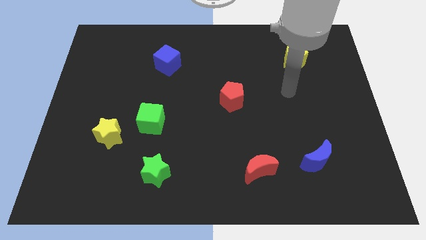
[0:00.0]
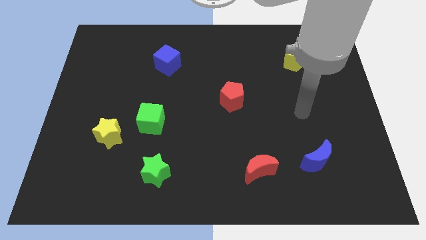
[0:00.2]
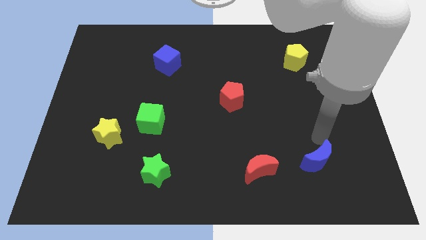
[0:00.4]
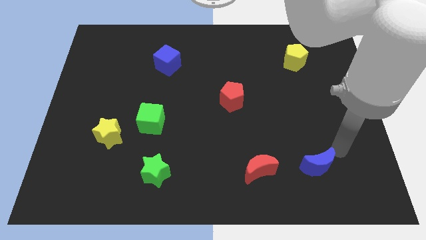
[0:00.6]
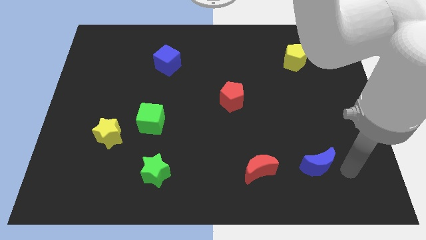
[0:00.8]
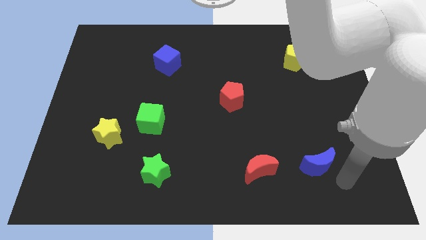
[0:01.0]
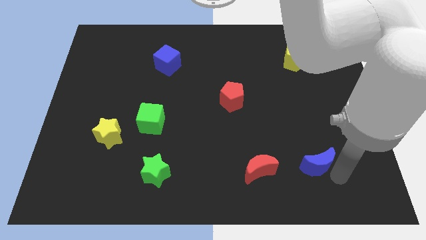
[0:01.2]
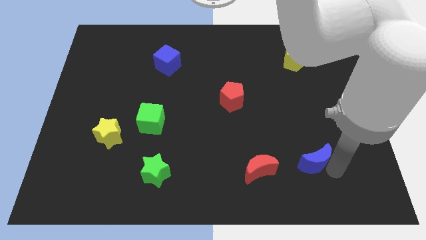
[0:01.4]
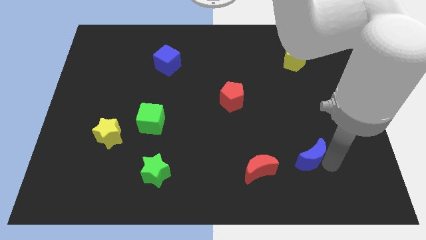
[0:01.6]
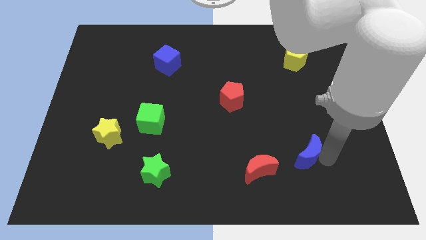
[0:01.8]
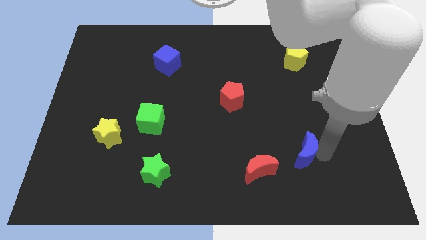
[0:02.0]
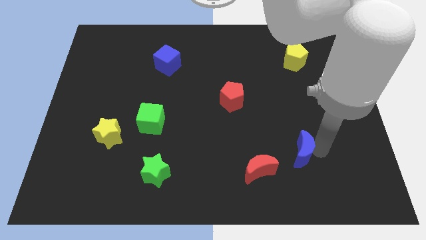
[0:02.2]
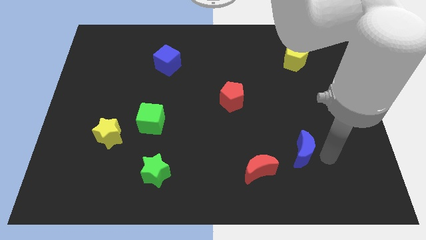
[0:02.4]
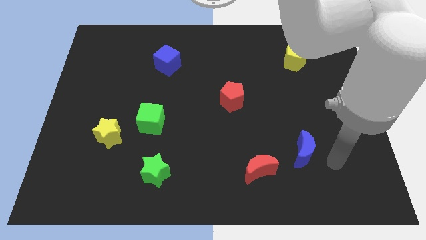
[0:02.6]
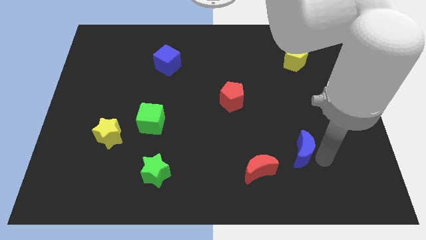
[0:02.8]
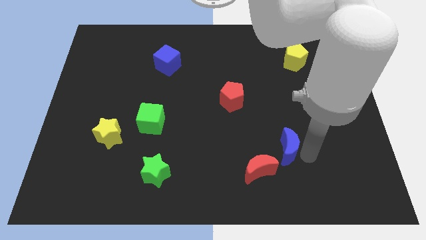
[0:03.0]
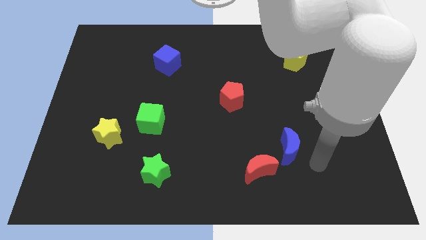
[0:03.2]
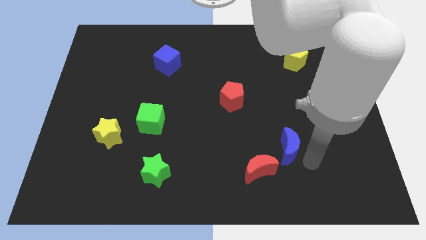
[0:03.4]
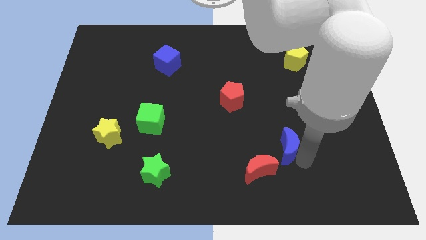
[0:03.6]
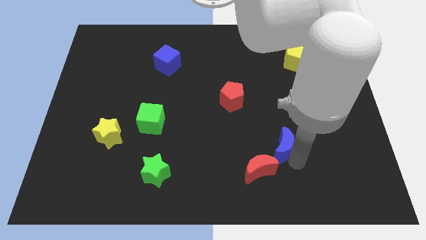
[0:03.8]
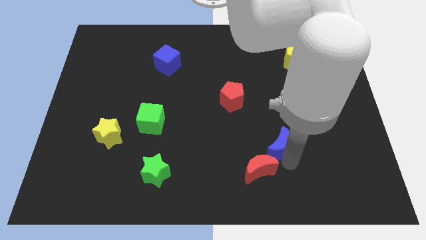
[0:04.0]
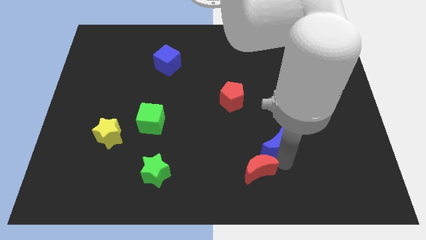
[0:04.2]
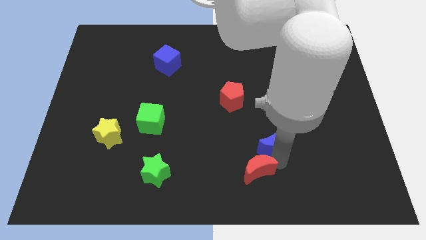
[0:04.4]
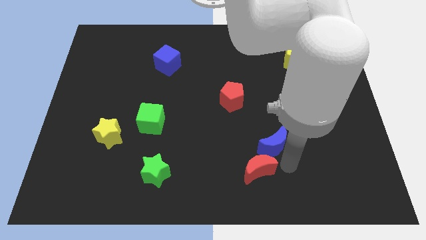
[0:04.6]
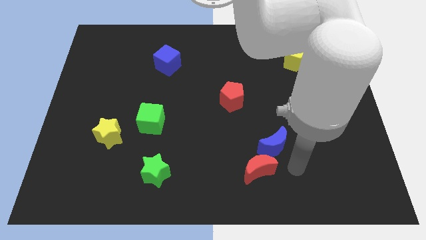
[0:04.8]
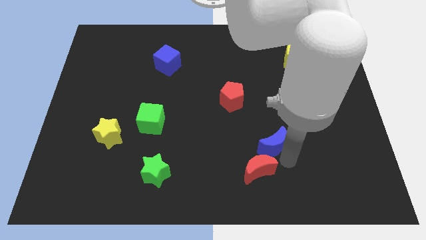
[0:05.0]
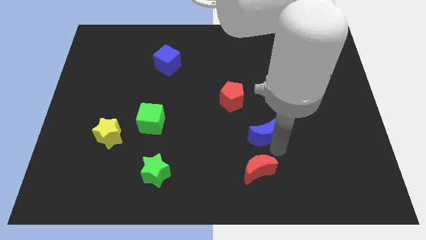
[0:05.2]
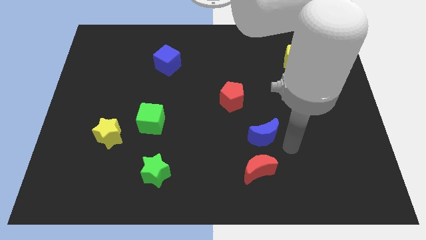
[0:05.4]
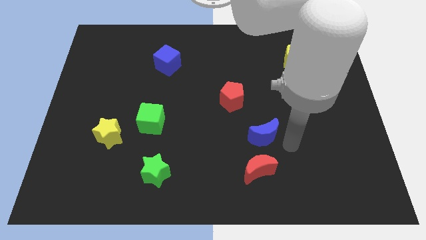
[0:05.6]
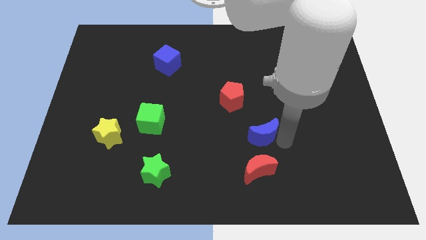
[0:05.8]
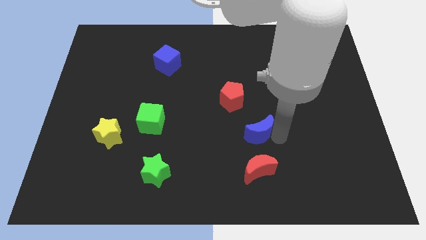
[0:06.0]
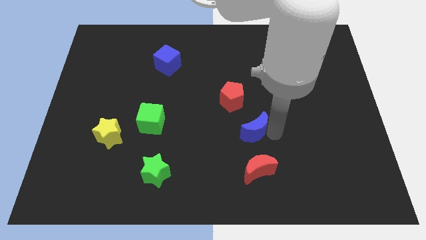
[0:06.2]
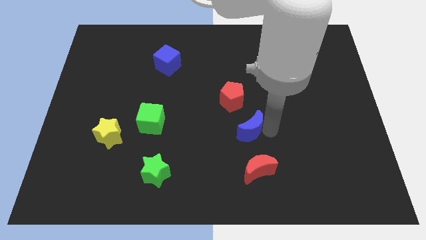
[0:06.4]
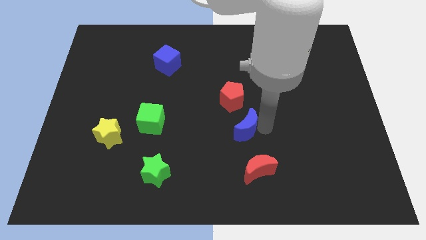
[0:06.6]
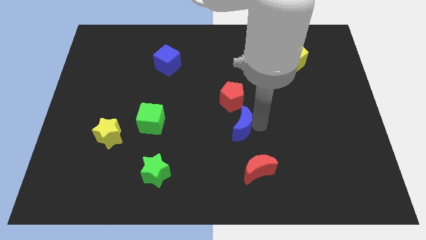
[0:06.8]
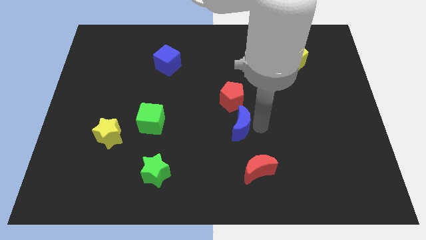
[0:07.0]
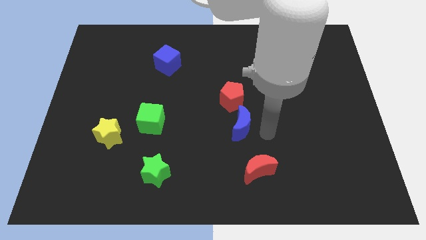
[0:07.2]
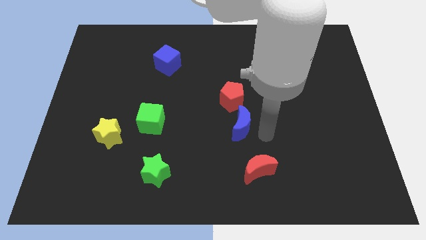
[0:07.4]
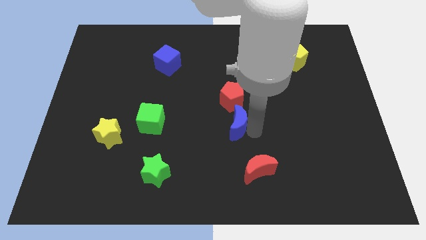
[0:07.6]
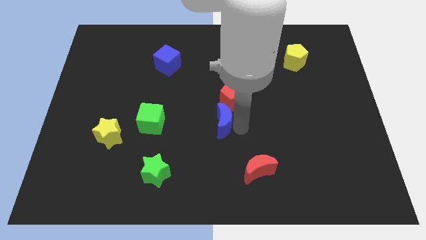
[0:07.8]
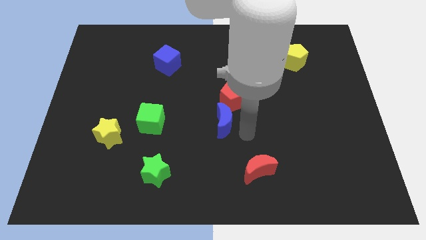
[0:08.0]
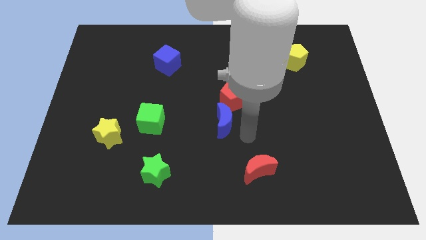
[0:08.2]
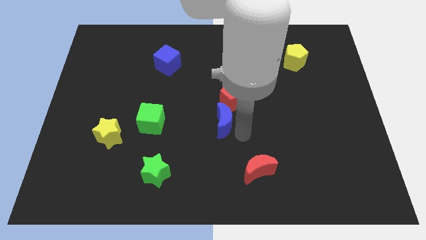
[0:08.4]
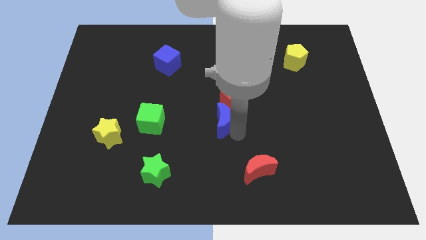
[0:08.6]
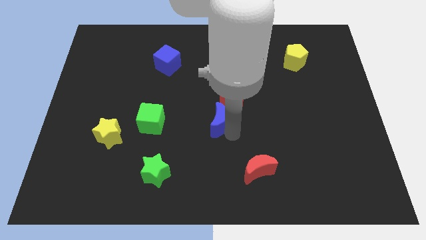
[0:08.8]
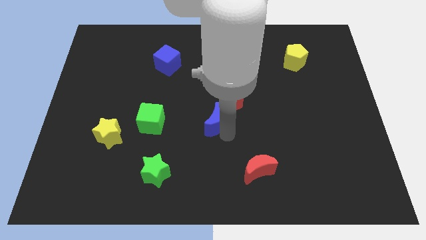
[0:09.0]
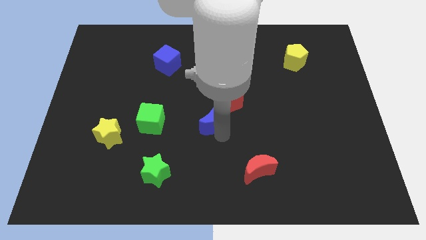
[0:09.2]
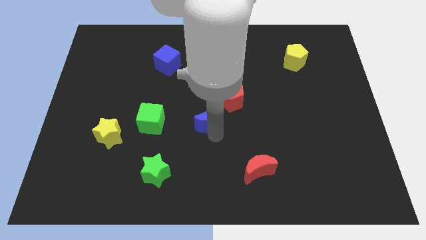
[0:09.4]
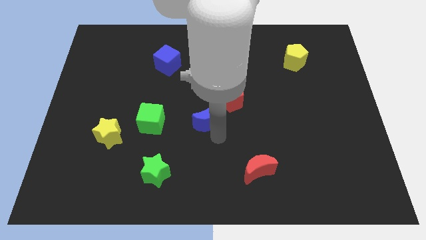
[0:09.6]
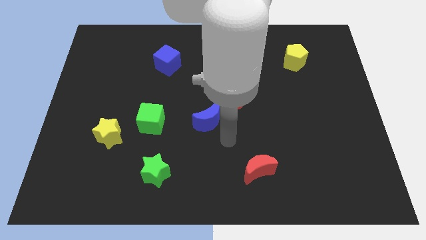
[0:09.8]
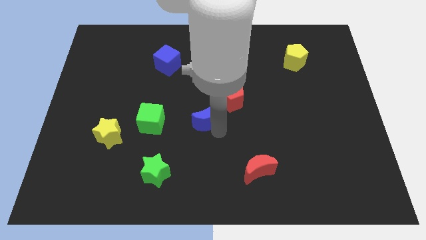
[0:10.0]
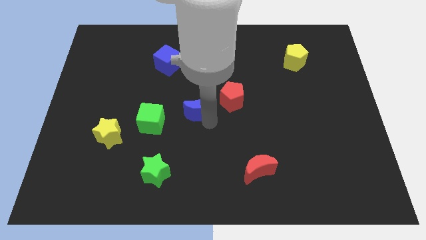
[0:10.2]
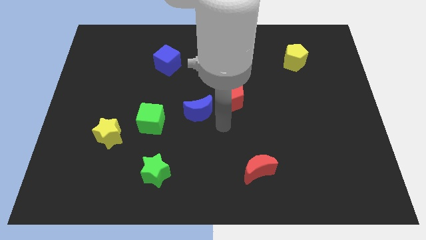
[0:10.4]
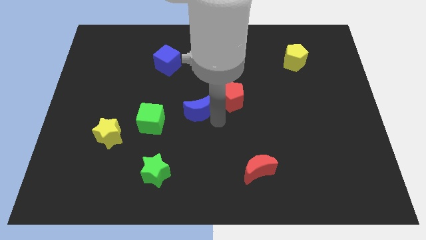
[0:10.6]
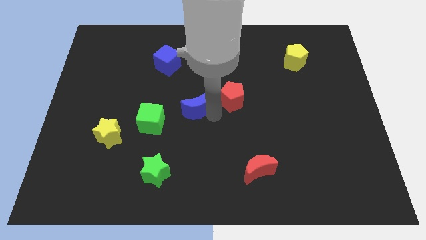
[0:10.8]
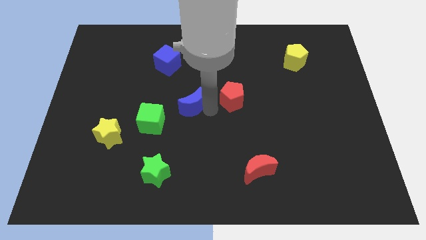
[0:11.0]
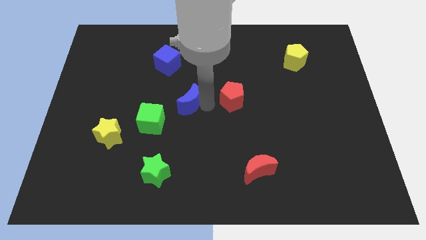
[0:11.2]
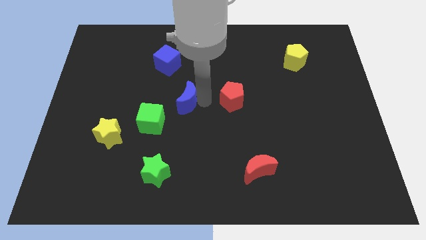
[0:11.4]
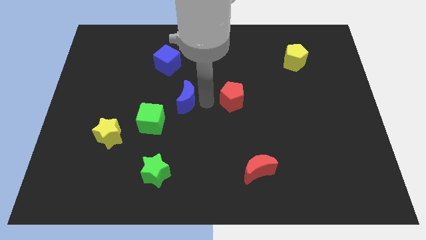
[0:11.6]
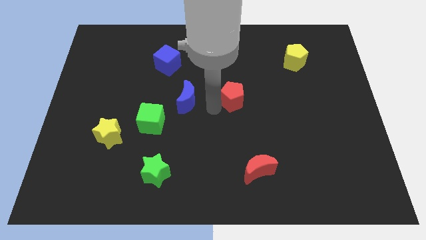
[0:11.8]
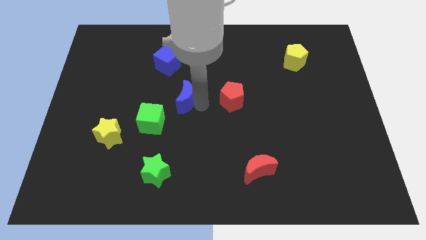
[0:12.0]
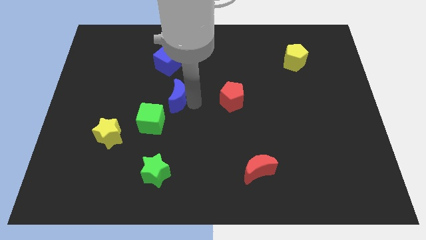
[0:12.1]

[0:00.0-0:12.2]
put the blue moon to the bottom of the blue cube

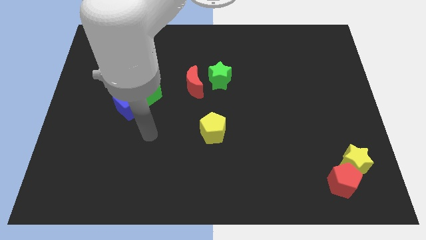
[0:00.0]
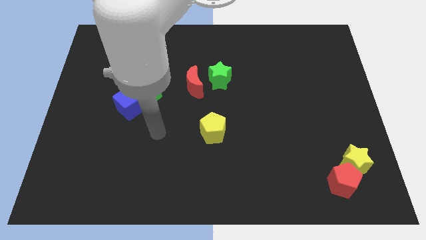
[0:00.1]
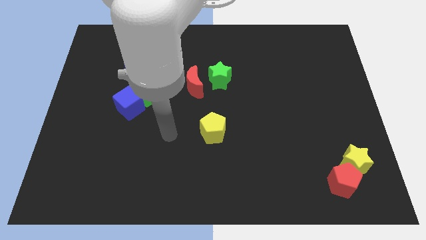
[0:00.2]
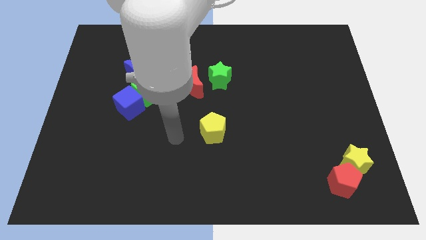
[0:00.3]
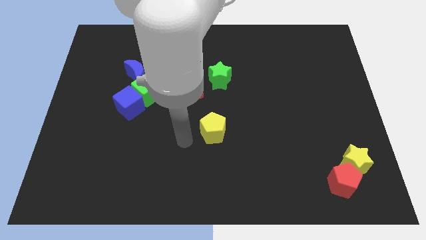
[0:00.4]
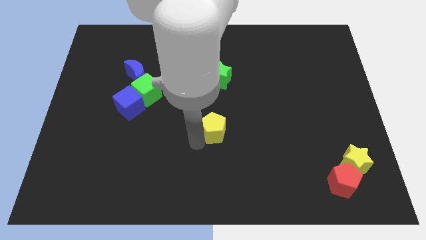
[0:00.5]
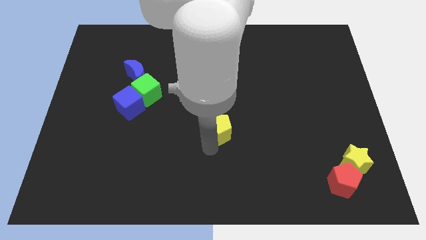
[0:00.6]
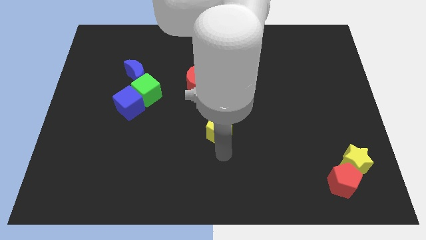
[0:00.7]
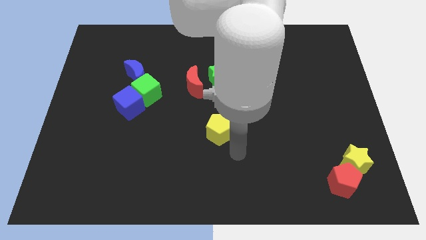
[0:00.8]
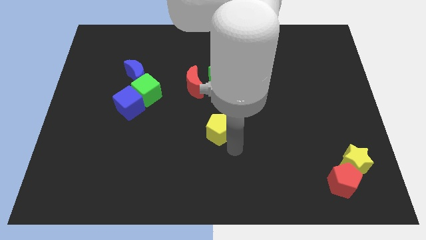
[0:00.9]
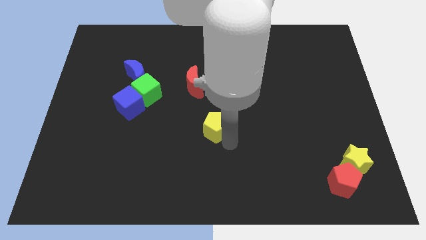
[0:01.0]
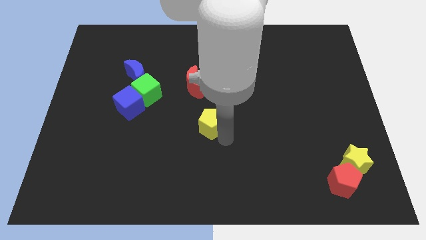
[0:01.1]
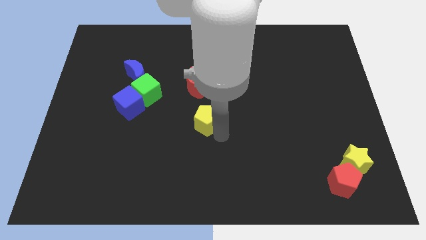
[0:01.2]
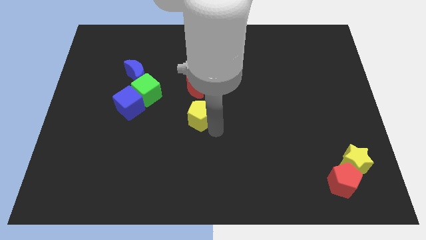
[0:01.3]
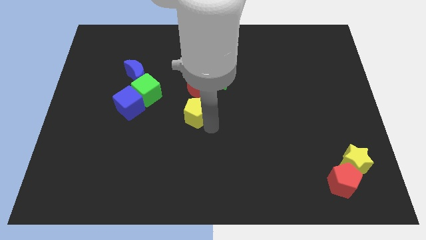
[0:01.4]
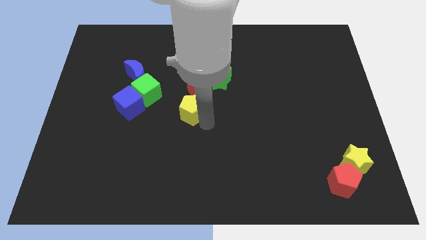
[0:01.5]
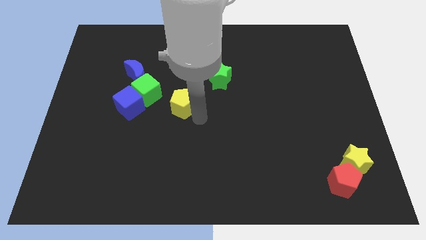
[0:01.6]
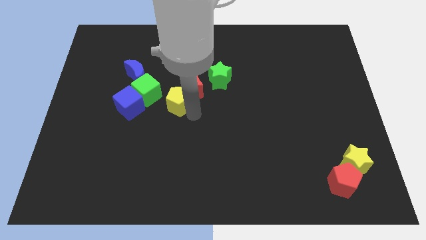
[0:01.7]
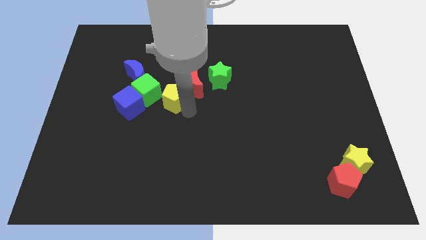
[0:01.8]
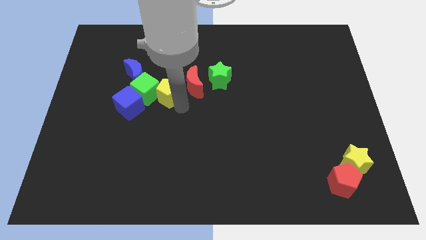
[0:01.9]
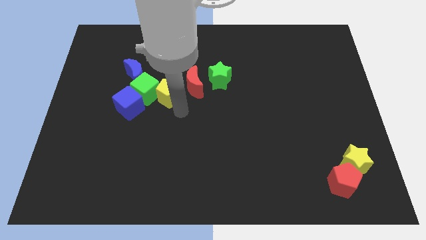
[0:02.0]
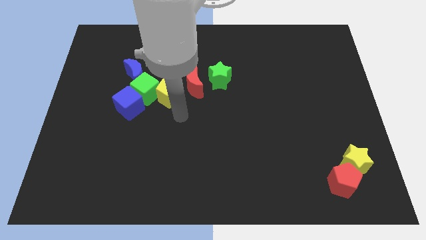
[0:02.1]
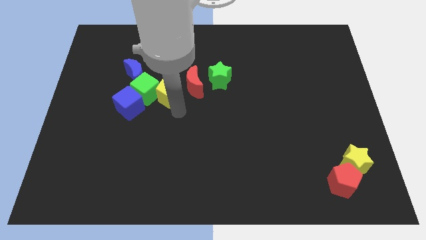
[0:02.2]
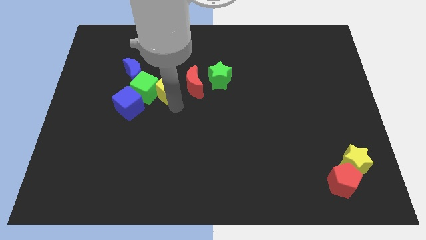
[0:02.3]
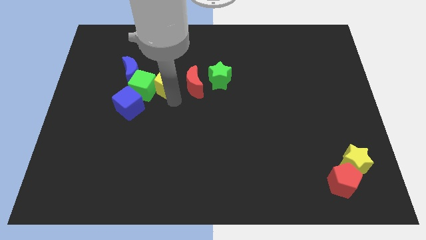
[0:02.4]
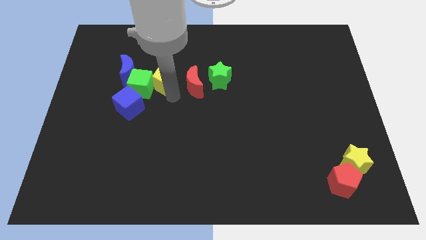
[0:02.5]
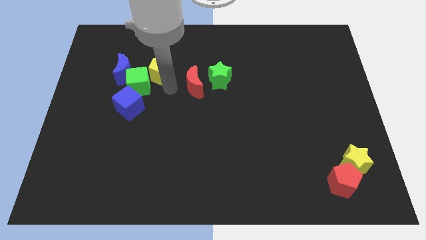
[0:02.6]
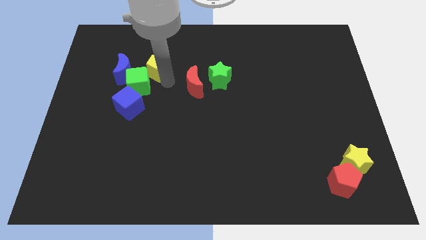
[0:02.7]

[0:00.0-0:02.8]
put the yellow pentagon to the top side of the green cube
